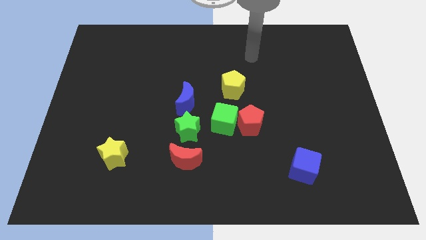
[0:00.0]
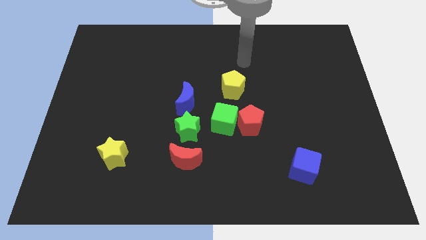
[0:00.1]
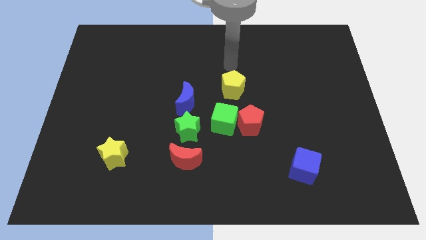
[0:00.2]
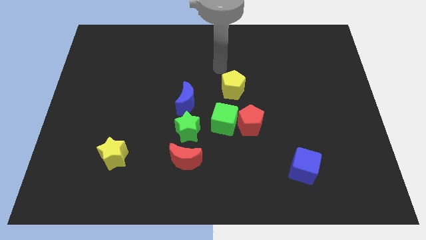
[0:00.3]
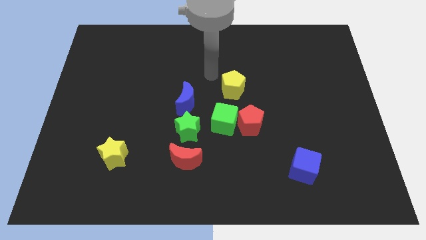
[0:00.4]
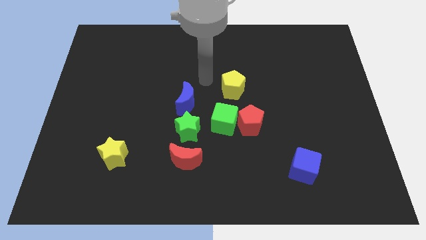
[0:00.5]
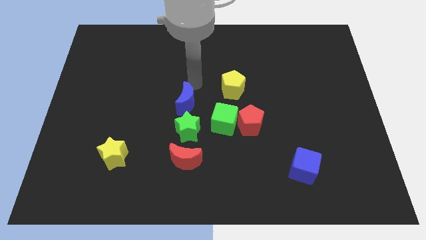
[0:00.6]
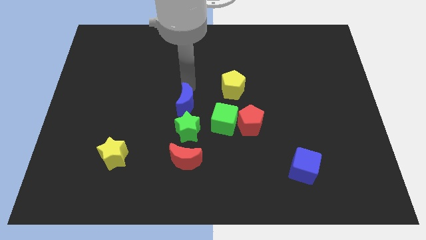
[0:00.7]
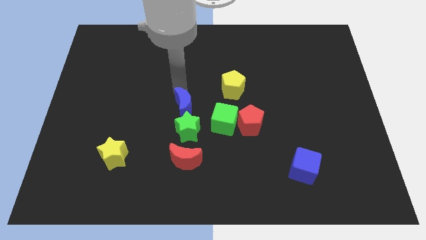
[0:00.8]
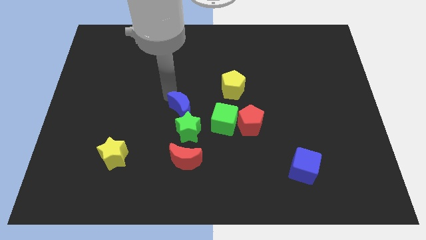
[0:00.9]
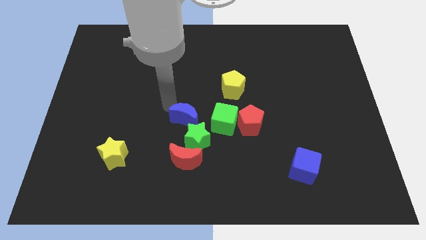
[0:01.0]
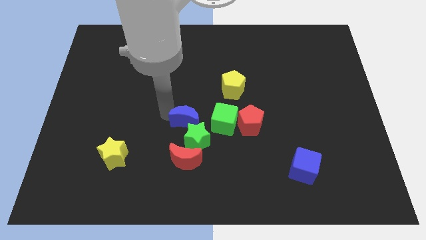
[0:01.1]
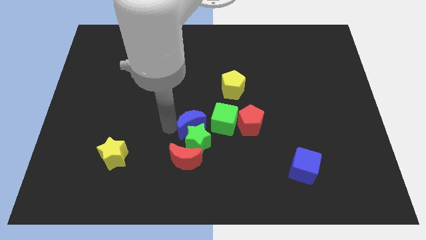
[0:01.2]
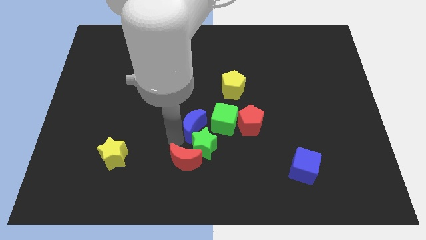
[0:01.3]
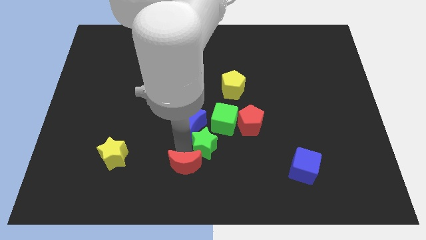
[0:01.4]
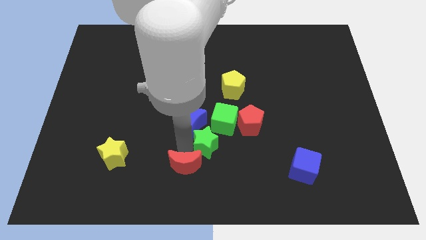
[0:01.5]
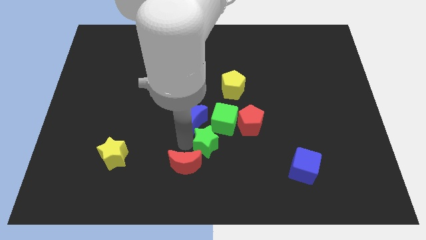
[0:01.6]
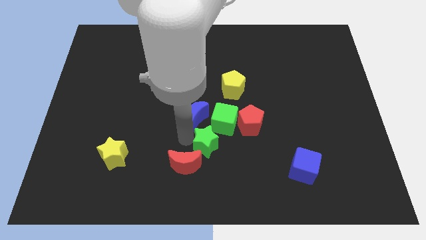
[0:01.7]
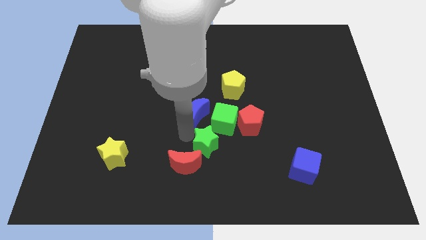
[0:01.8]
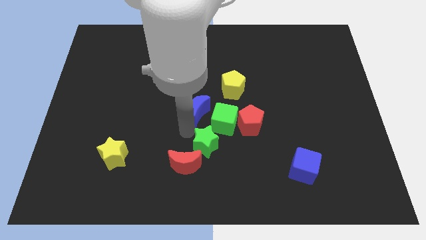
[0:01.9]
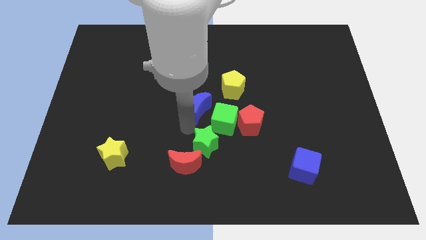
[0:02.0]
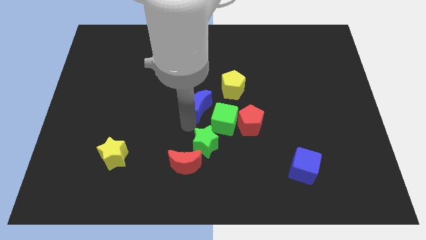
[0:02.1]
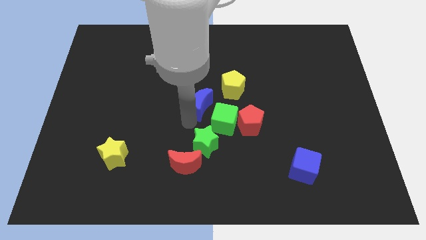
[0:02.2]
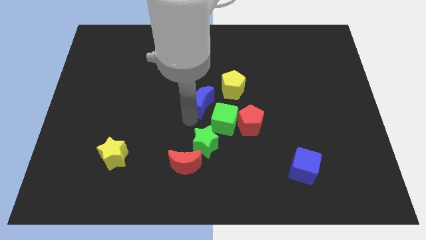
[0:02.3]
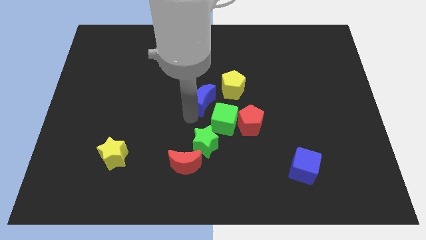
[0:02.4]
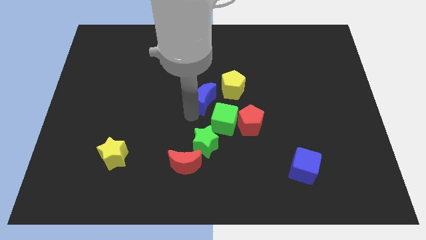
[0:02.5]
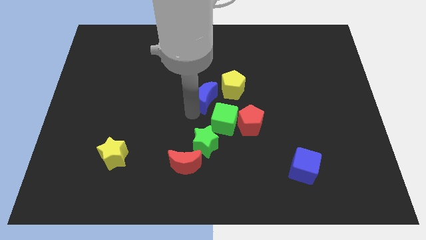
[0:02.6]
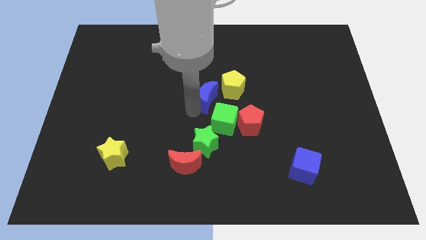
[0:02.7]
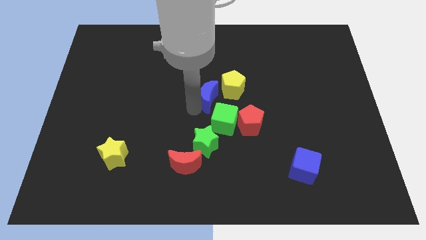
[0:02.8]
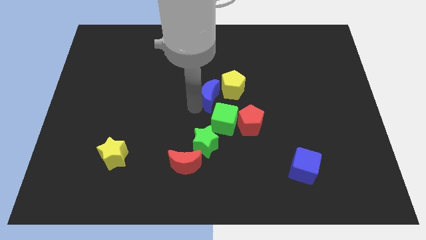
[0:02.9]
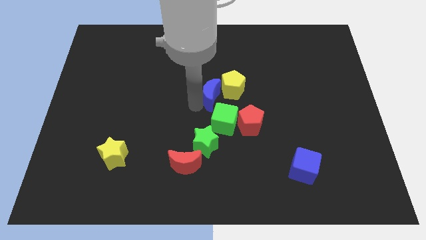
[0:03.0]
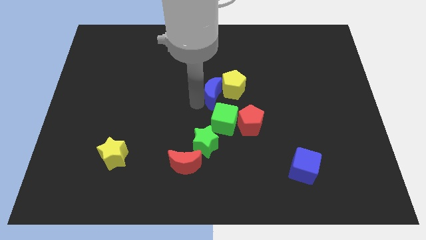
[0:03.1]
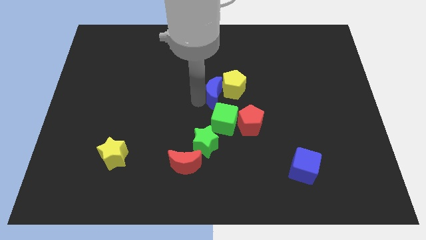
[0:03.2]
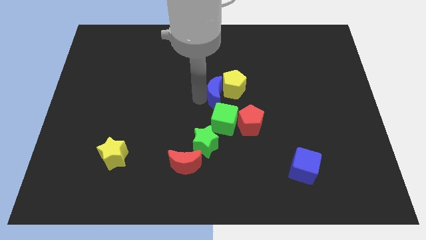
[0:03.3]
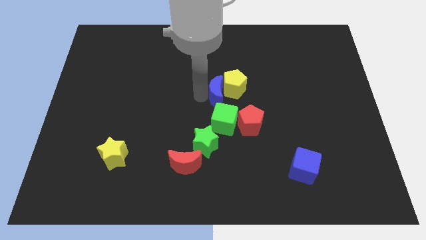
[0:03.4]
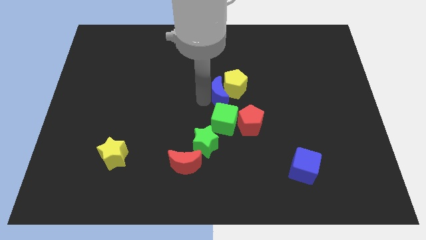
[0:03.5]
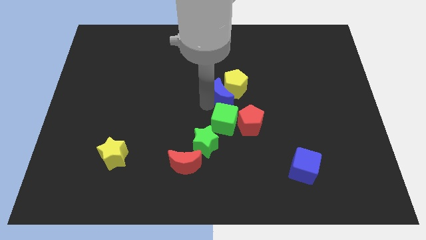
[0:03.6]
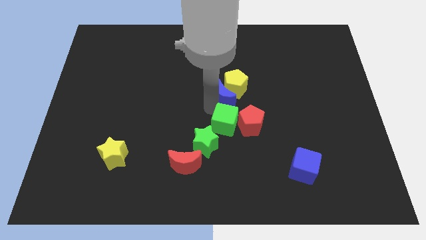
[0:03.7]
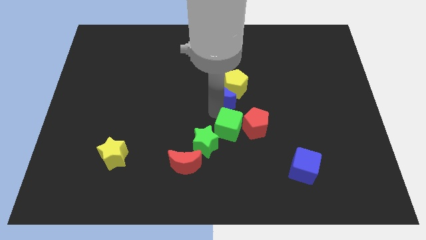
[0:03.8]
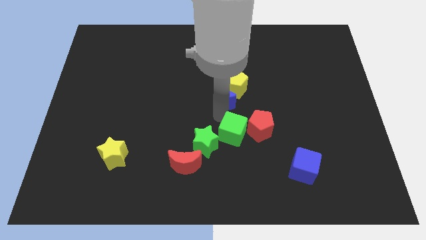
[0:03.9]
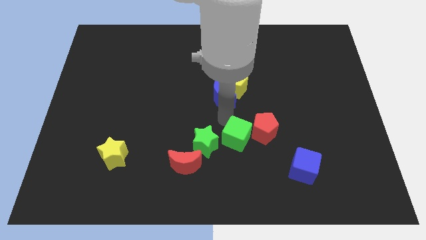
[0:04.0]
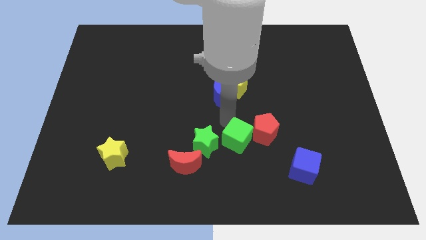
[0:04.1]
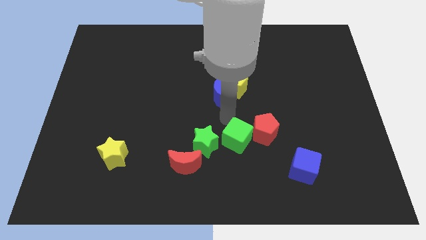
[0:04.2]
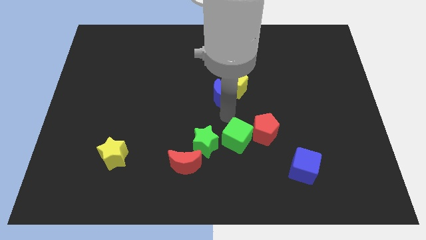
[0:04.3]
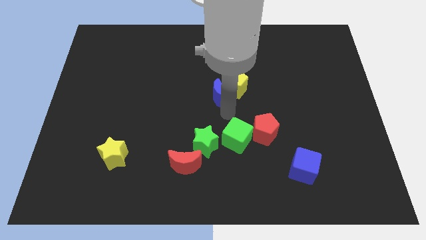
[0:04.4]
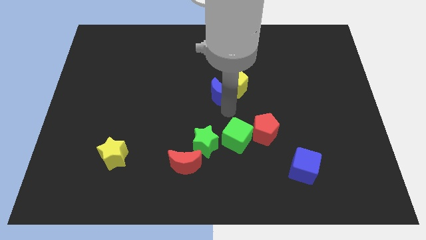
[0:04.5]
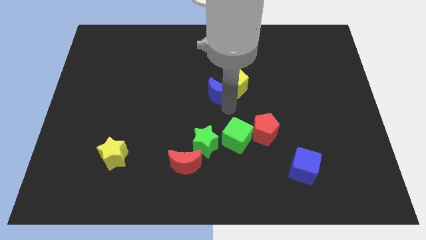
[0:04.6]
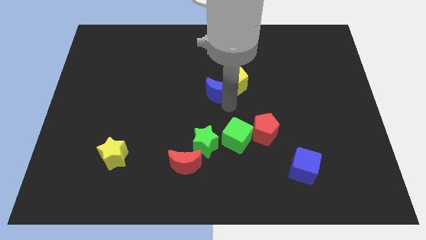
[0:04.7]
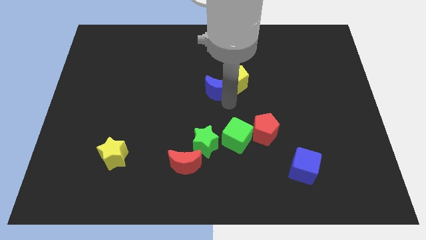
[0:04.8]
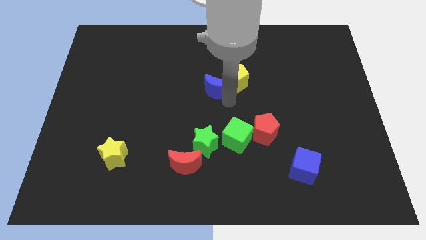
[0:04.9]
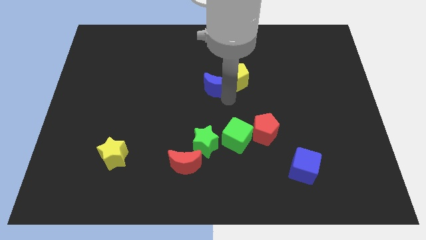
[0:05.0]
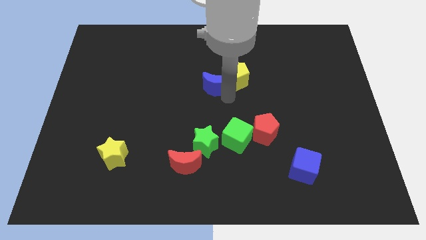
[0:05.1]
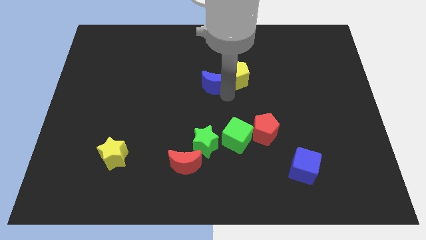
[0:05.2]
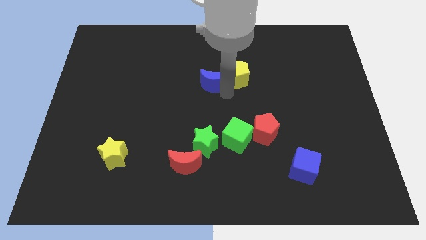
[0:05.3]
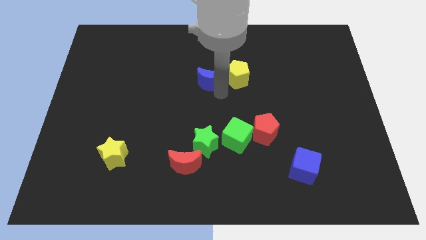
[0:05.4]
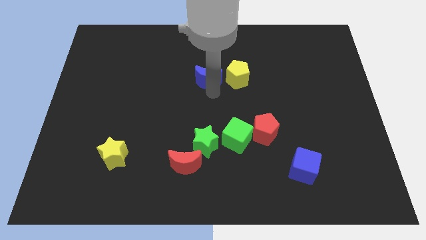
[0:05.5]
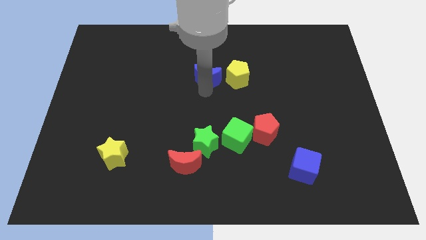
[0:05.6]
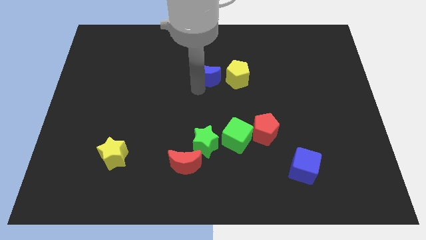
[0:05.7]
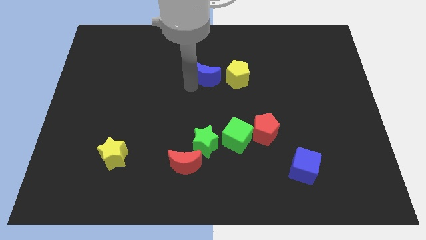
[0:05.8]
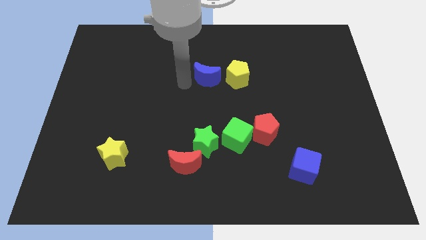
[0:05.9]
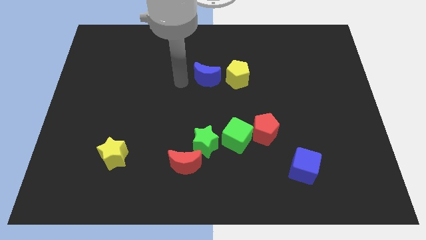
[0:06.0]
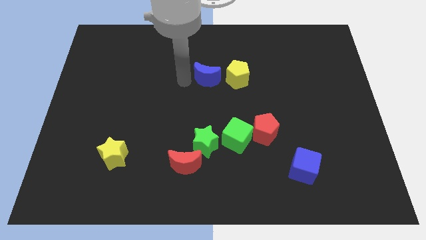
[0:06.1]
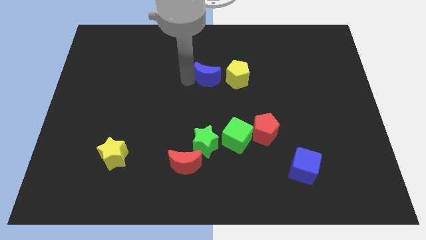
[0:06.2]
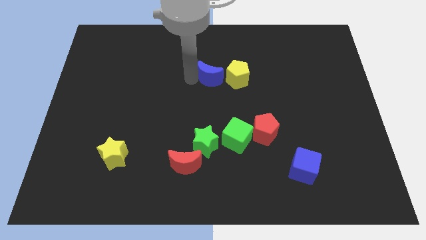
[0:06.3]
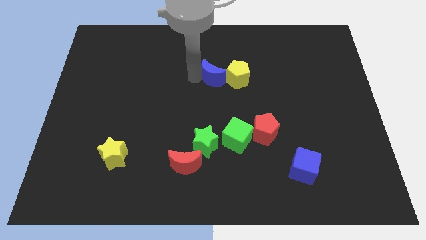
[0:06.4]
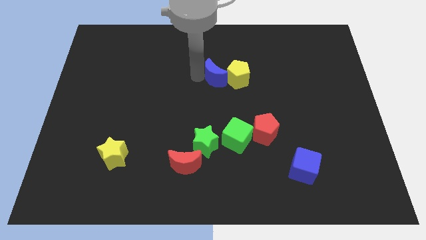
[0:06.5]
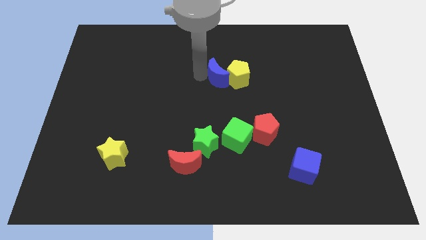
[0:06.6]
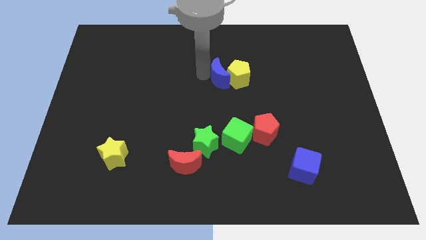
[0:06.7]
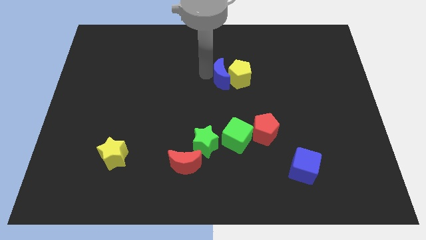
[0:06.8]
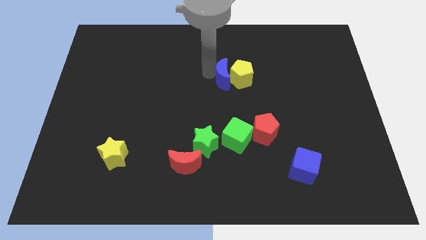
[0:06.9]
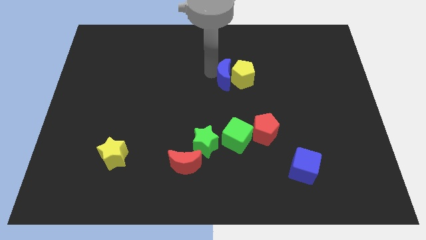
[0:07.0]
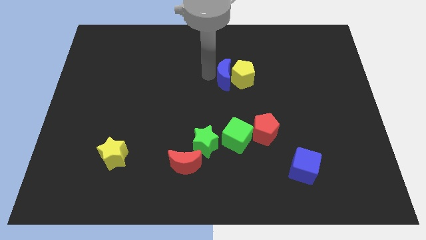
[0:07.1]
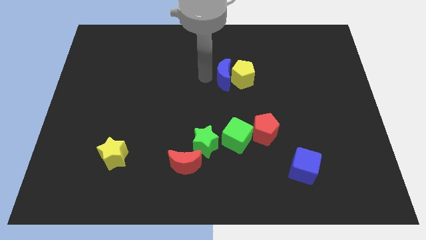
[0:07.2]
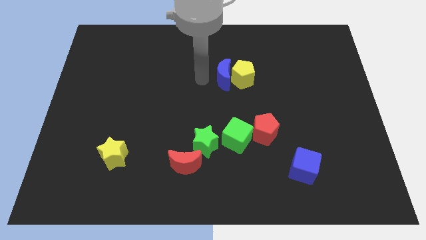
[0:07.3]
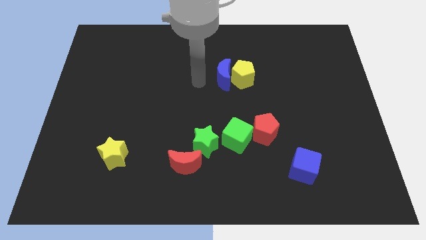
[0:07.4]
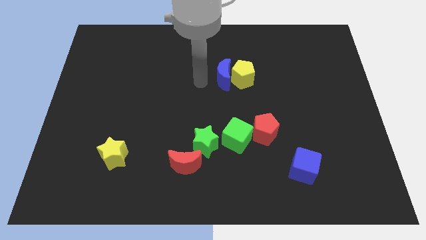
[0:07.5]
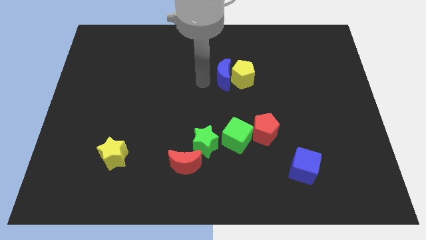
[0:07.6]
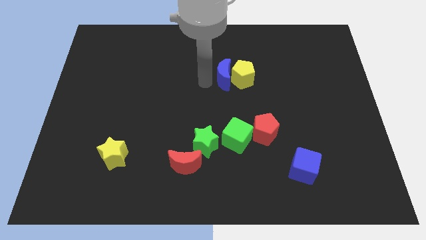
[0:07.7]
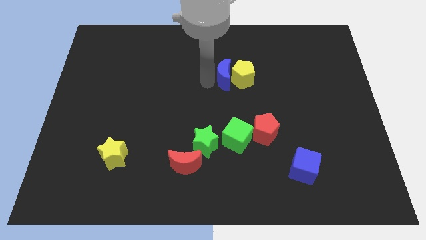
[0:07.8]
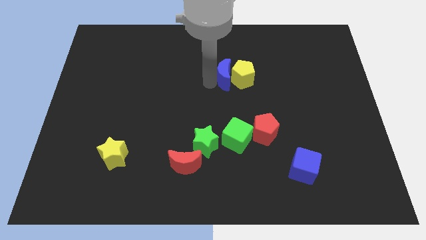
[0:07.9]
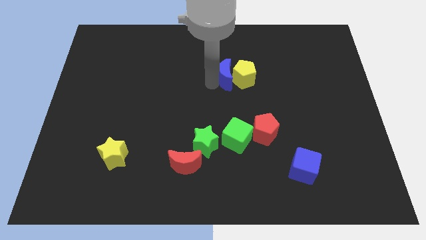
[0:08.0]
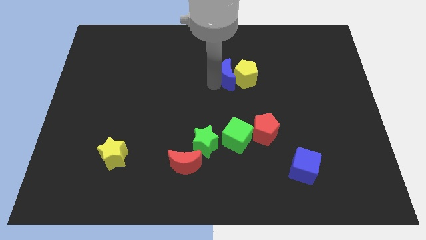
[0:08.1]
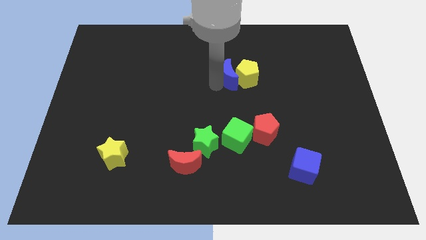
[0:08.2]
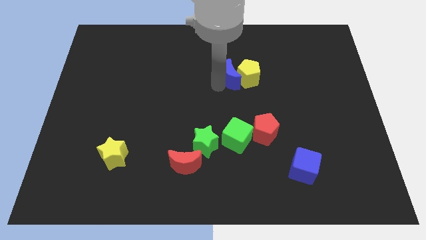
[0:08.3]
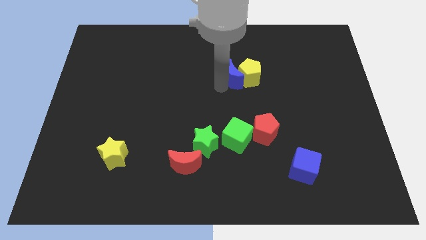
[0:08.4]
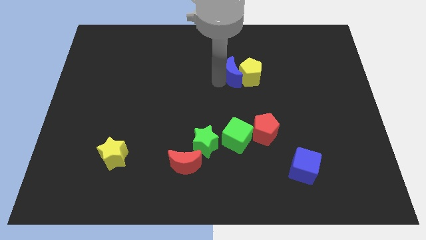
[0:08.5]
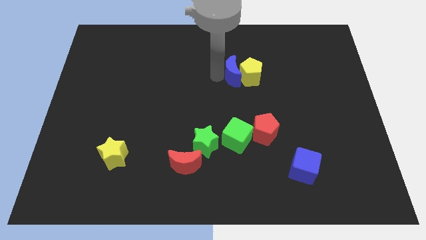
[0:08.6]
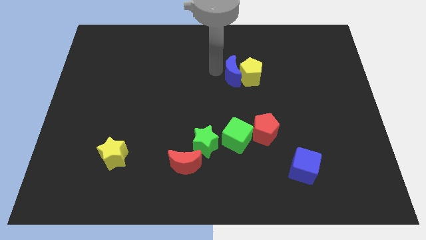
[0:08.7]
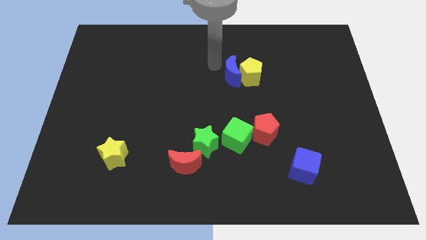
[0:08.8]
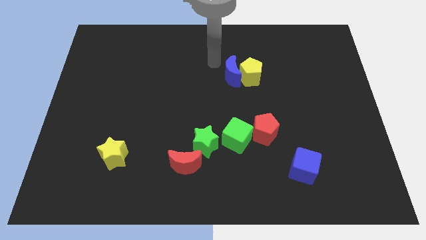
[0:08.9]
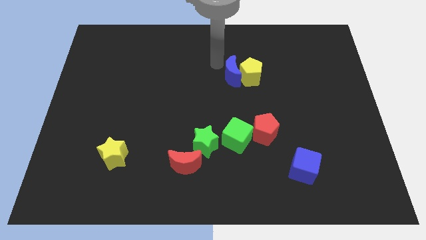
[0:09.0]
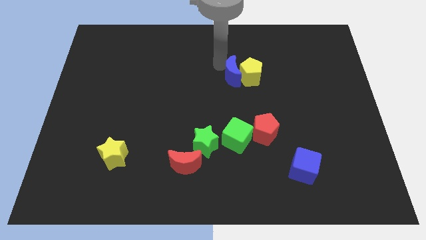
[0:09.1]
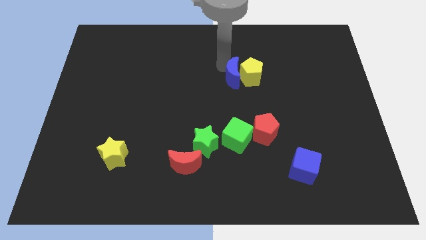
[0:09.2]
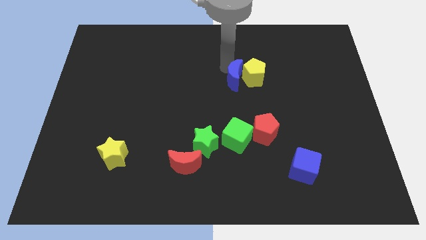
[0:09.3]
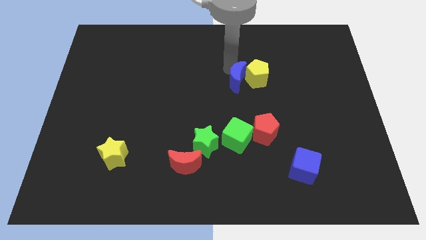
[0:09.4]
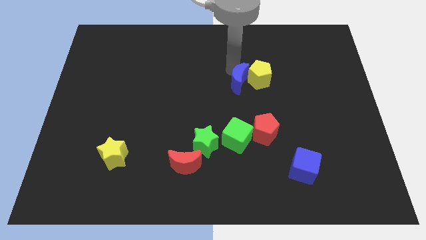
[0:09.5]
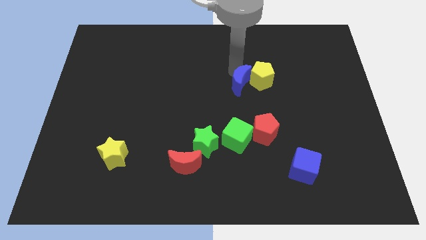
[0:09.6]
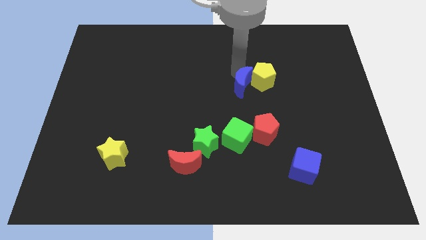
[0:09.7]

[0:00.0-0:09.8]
put the blue moon above the red pentagon
